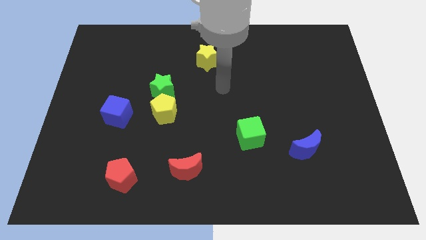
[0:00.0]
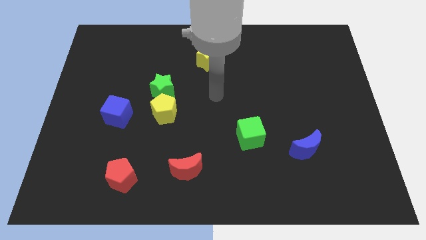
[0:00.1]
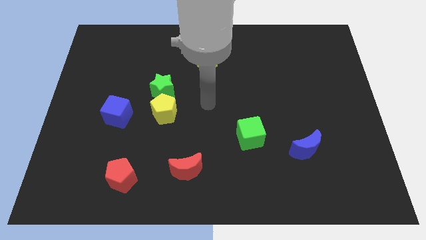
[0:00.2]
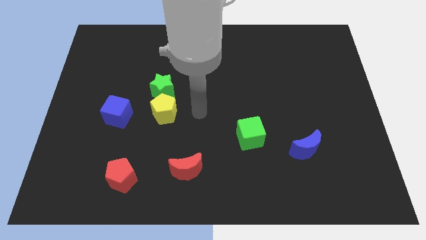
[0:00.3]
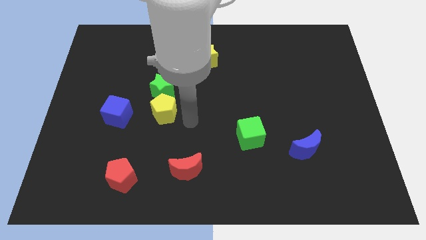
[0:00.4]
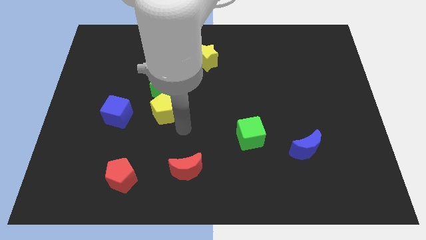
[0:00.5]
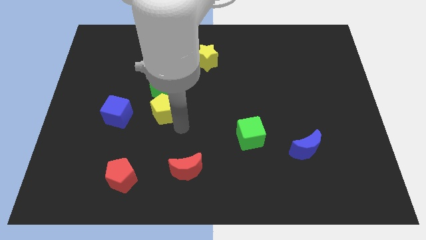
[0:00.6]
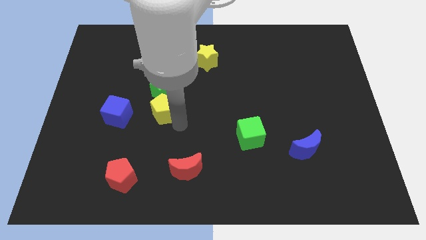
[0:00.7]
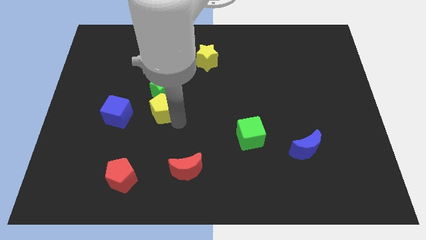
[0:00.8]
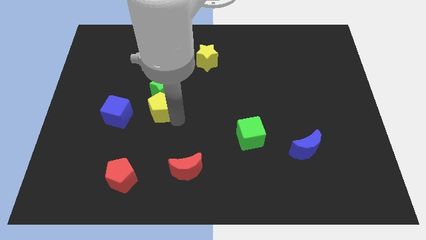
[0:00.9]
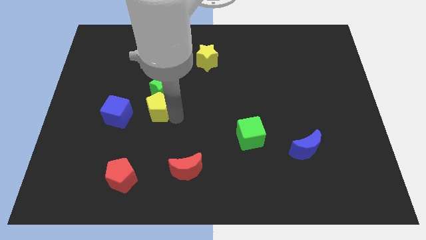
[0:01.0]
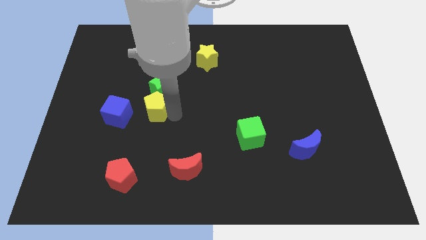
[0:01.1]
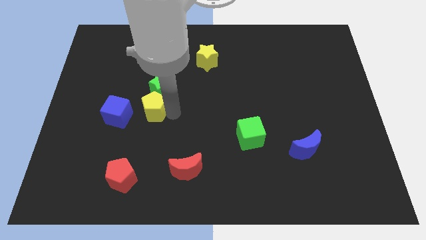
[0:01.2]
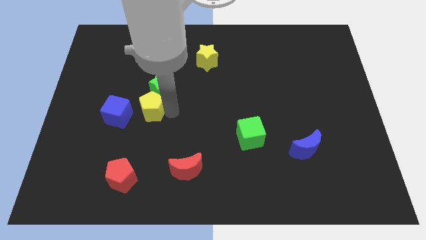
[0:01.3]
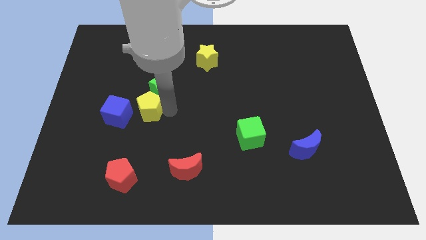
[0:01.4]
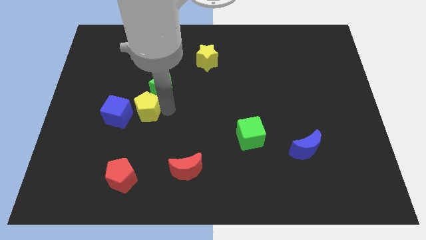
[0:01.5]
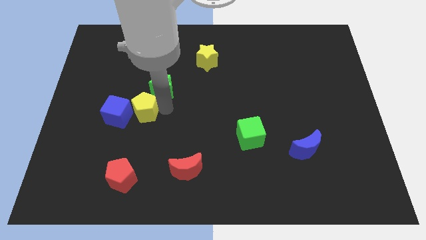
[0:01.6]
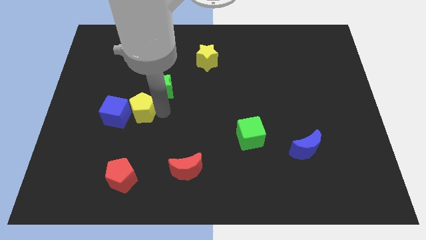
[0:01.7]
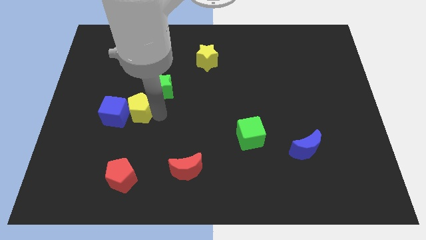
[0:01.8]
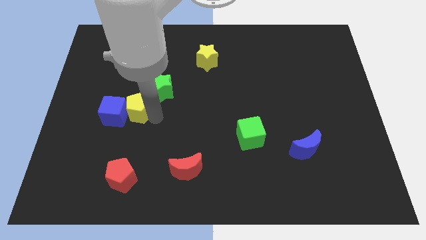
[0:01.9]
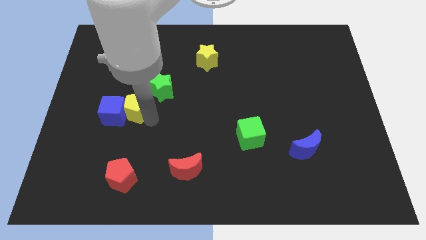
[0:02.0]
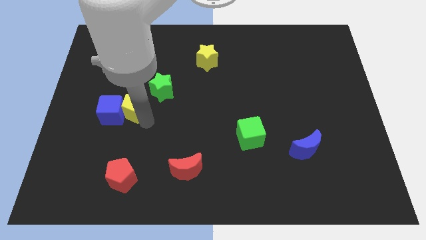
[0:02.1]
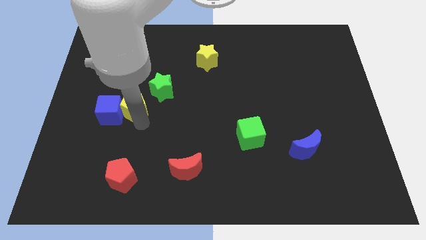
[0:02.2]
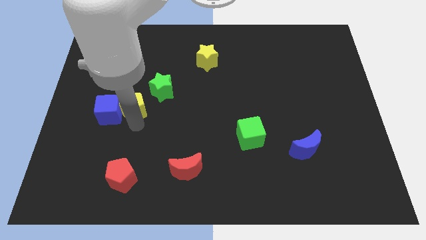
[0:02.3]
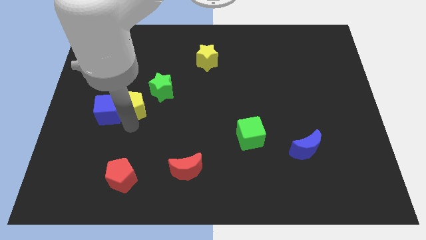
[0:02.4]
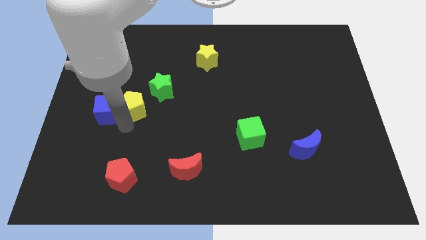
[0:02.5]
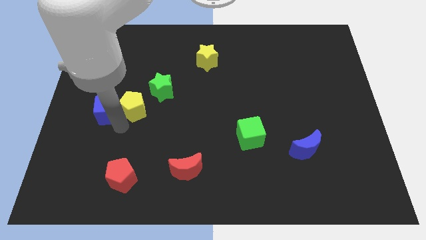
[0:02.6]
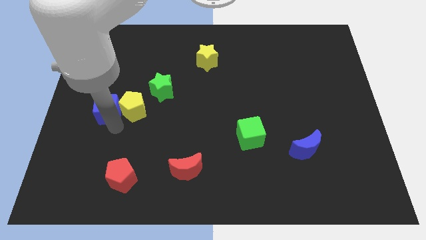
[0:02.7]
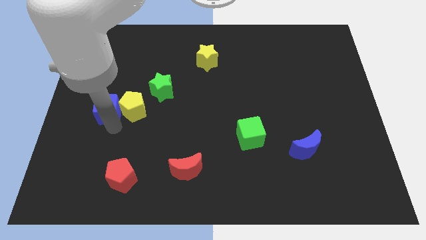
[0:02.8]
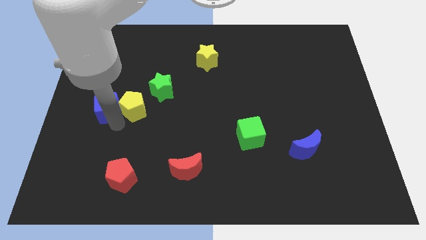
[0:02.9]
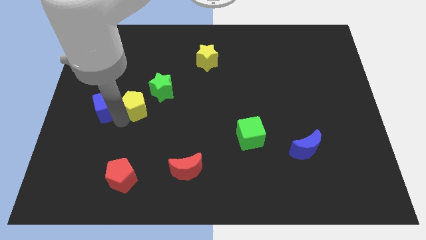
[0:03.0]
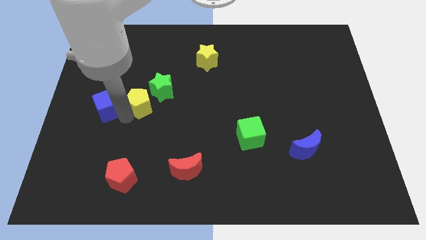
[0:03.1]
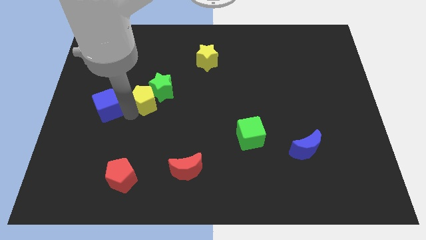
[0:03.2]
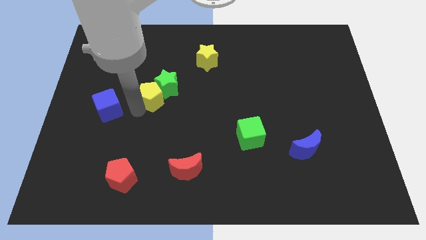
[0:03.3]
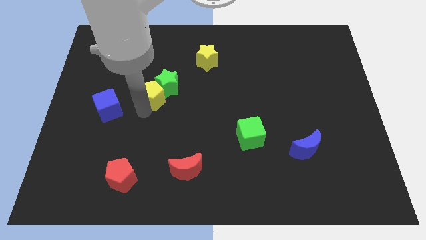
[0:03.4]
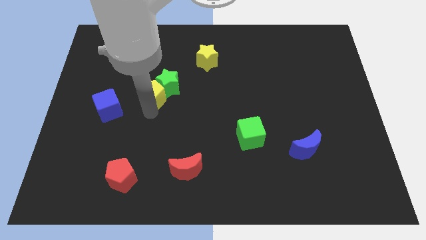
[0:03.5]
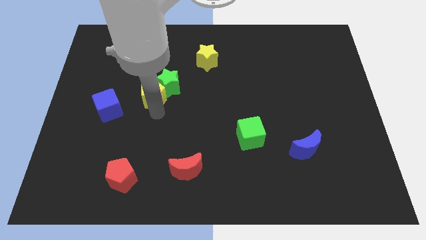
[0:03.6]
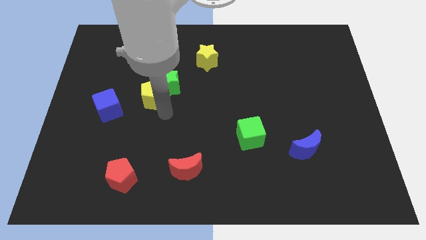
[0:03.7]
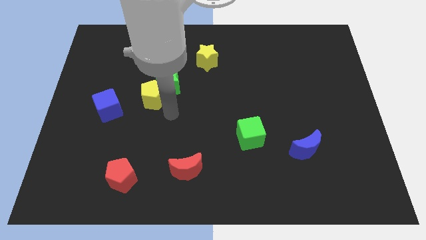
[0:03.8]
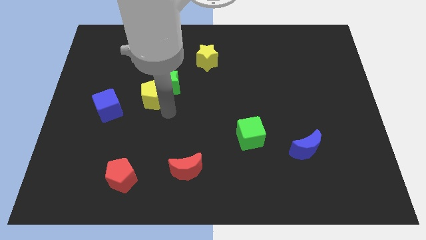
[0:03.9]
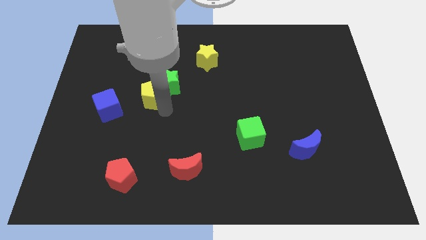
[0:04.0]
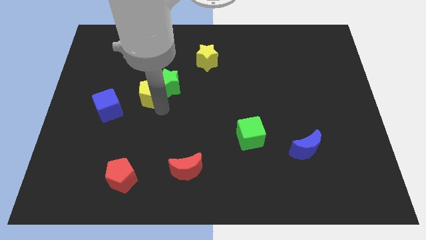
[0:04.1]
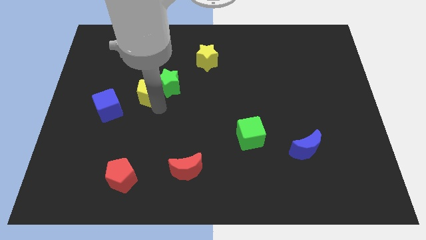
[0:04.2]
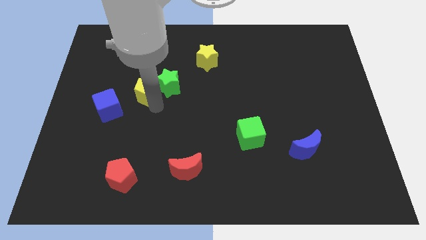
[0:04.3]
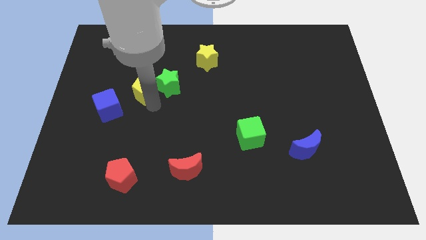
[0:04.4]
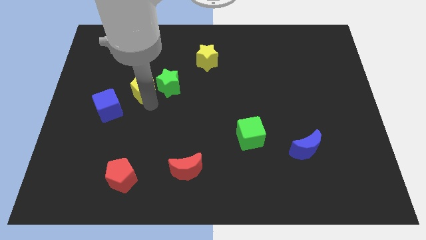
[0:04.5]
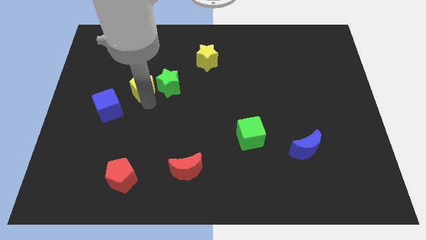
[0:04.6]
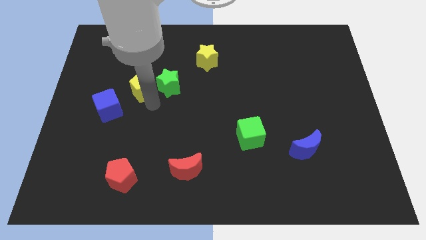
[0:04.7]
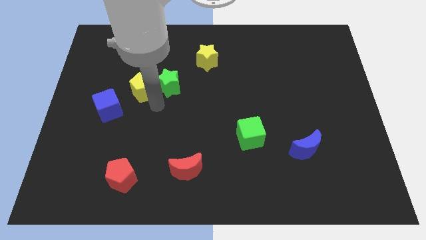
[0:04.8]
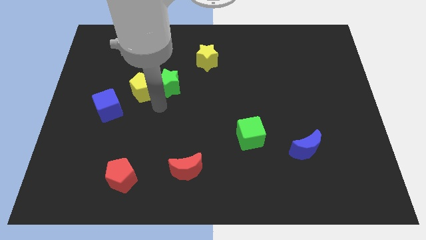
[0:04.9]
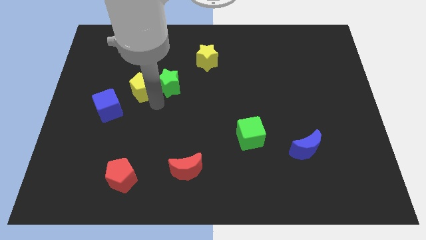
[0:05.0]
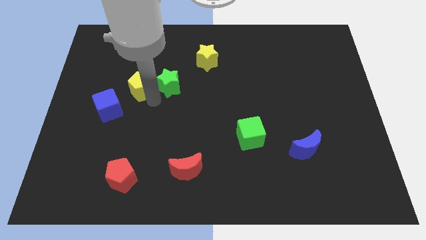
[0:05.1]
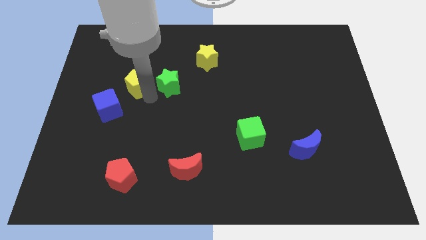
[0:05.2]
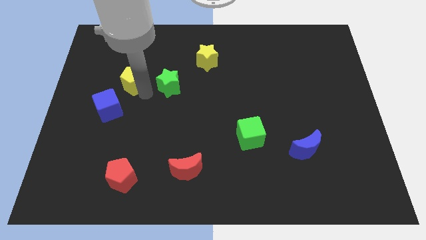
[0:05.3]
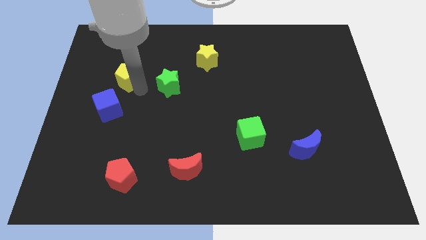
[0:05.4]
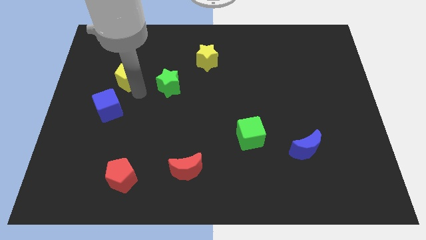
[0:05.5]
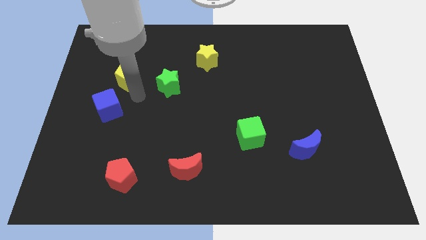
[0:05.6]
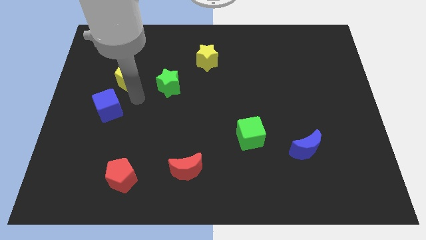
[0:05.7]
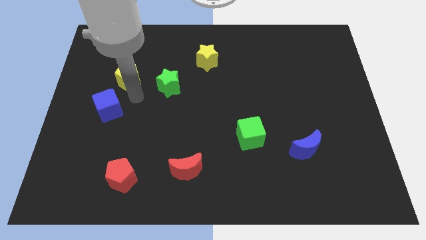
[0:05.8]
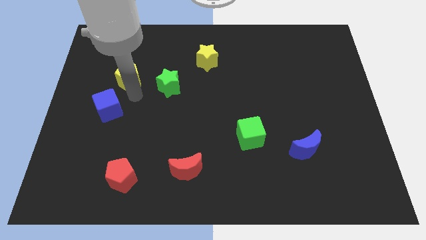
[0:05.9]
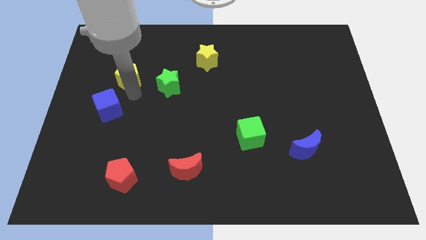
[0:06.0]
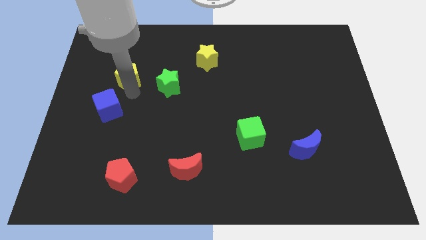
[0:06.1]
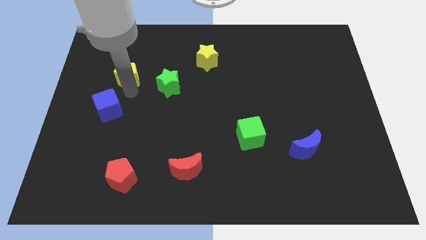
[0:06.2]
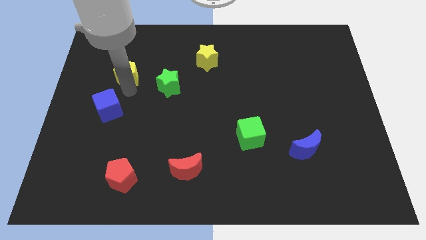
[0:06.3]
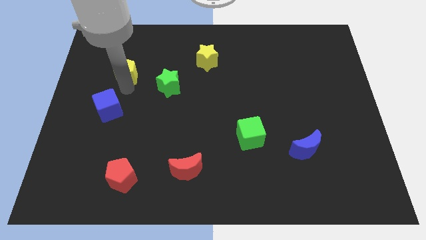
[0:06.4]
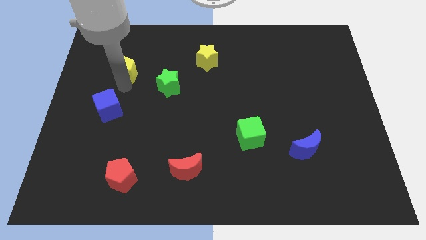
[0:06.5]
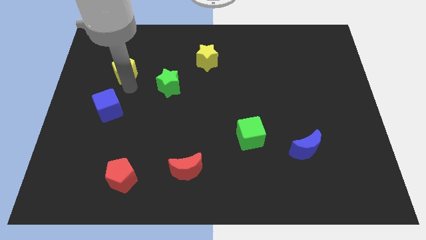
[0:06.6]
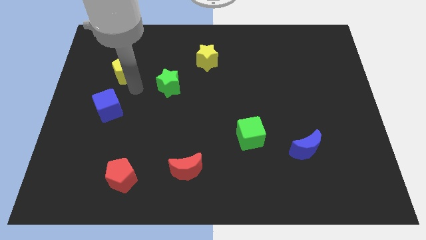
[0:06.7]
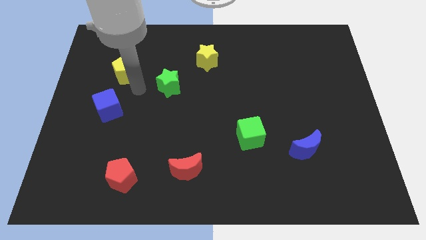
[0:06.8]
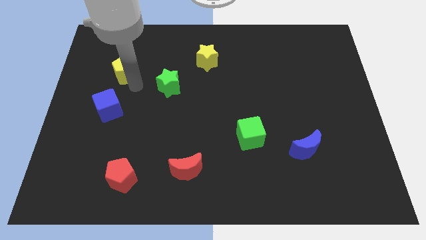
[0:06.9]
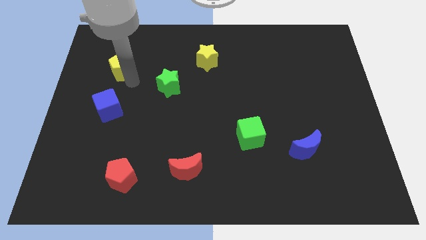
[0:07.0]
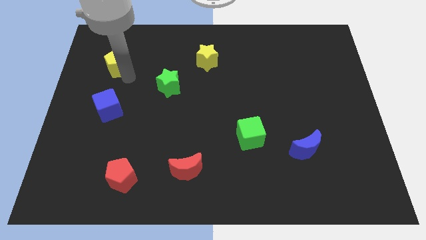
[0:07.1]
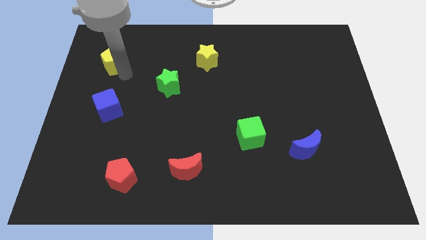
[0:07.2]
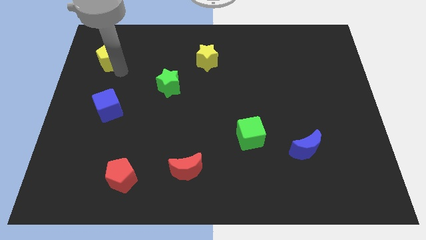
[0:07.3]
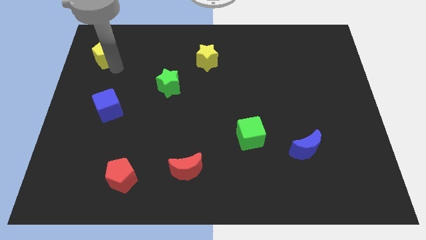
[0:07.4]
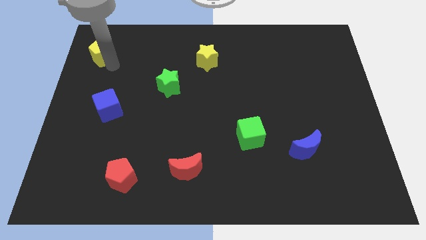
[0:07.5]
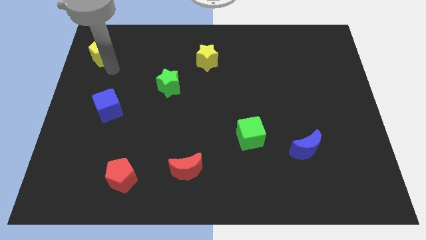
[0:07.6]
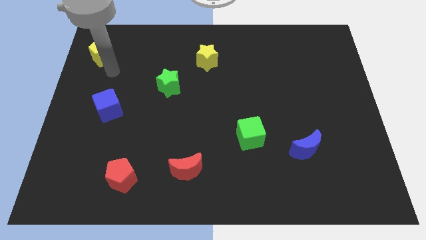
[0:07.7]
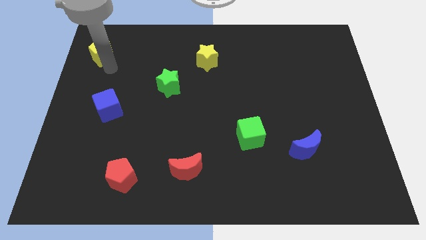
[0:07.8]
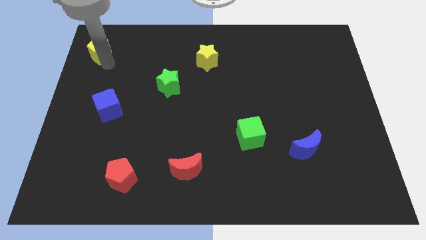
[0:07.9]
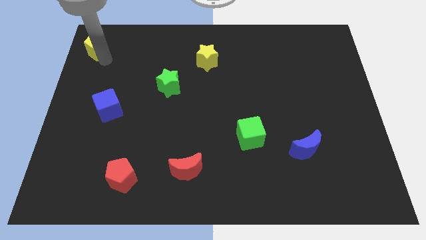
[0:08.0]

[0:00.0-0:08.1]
slide the yellow pentagon to the upper left corner
